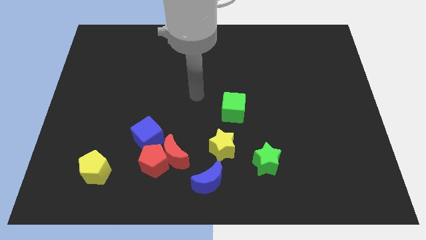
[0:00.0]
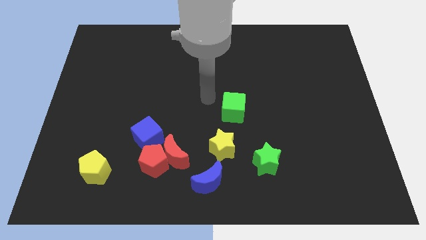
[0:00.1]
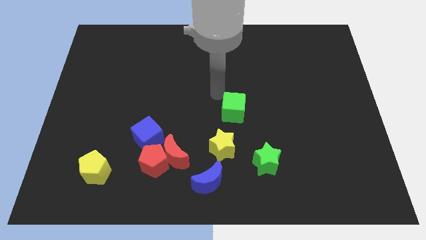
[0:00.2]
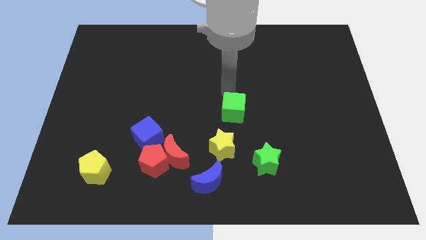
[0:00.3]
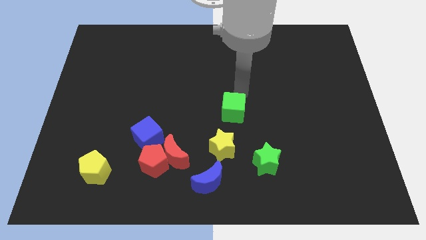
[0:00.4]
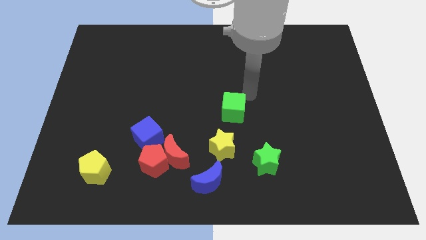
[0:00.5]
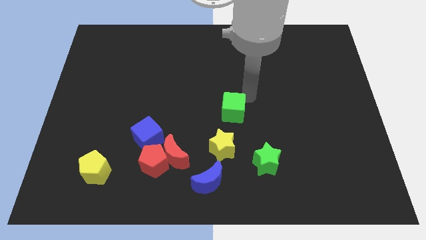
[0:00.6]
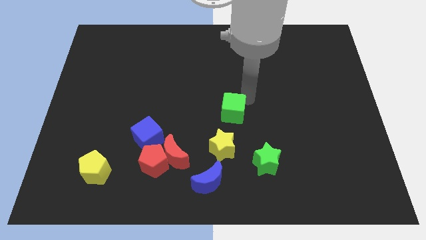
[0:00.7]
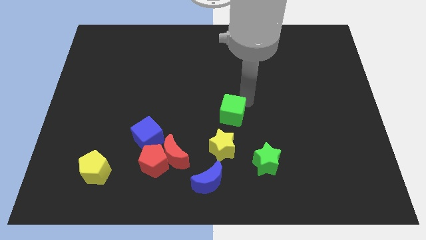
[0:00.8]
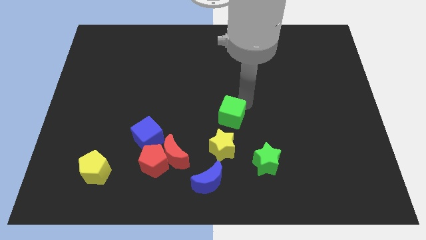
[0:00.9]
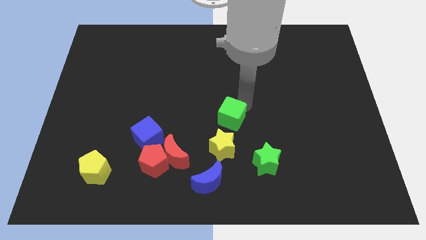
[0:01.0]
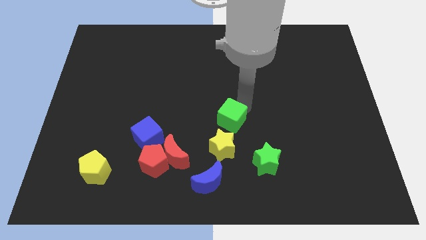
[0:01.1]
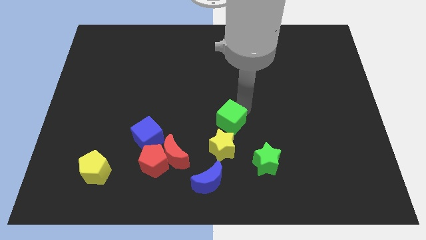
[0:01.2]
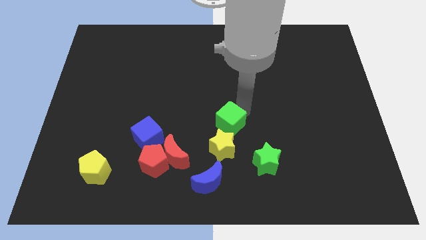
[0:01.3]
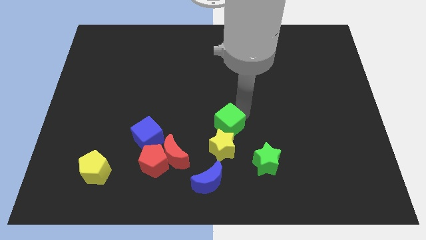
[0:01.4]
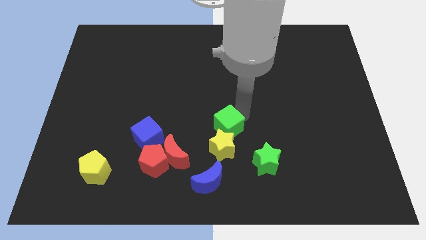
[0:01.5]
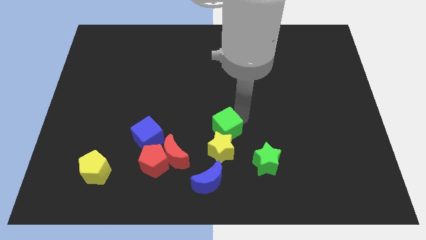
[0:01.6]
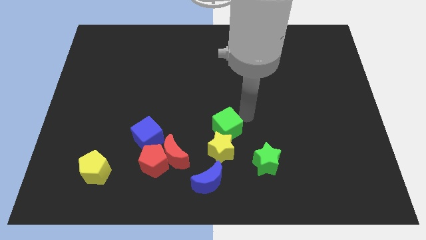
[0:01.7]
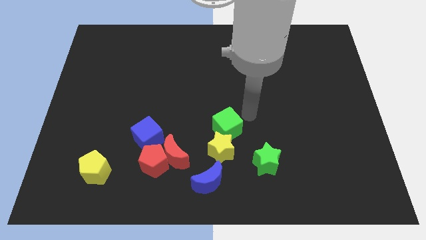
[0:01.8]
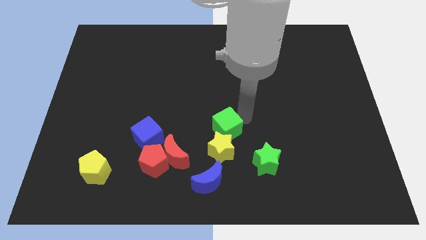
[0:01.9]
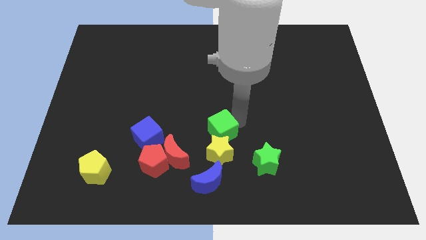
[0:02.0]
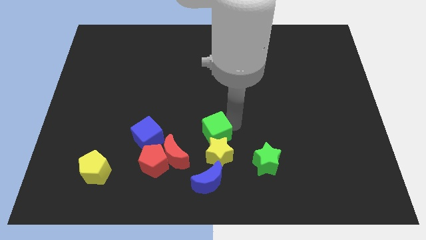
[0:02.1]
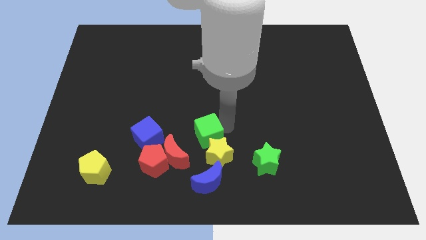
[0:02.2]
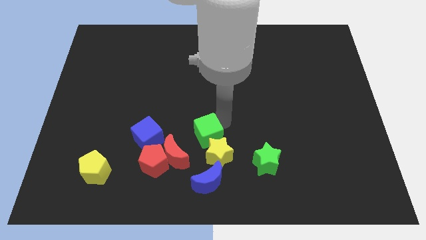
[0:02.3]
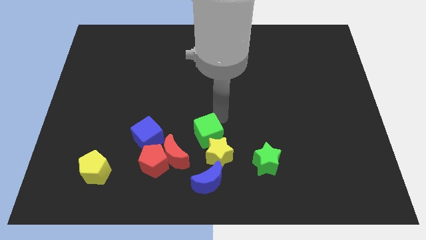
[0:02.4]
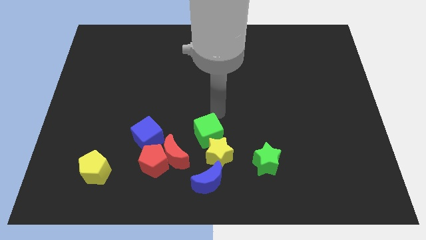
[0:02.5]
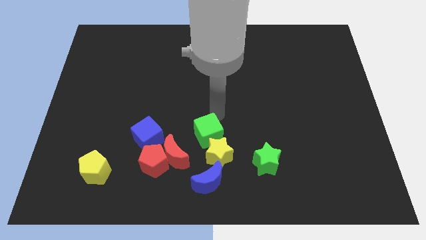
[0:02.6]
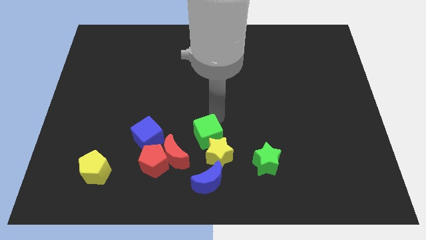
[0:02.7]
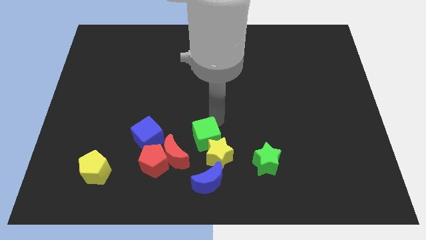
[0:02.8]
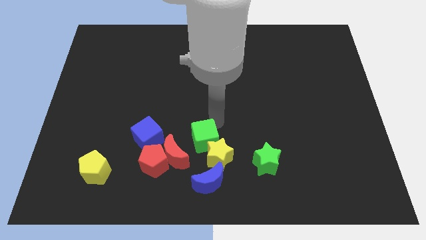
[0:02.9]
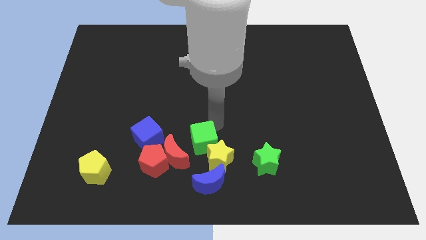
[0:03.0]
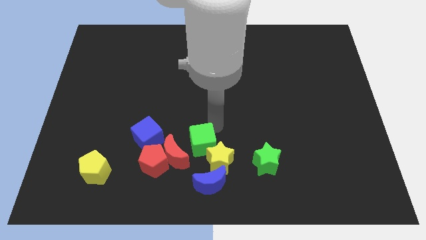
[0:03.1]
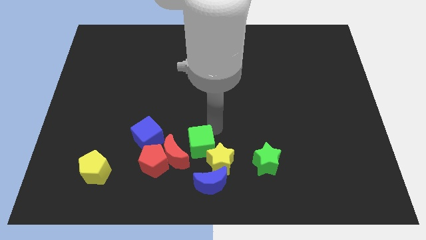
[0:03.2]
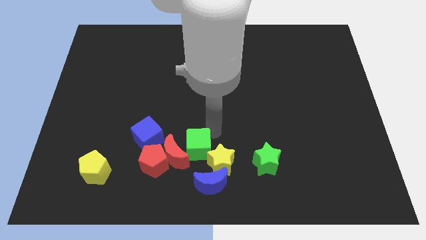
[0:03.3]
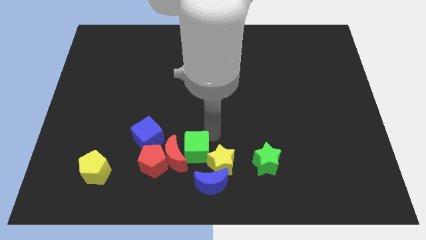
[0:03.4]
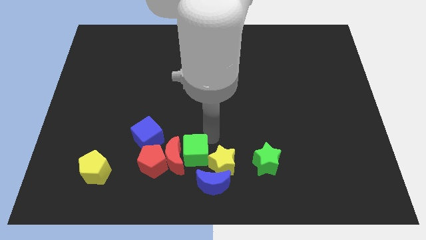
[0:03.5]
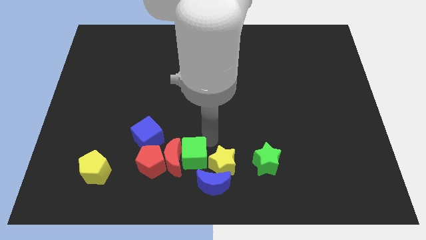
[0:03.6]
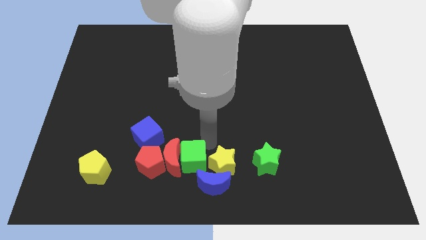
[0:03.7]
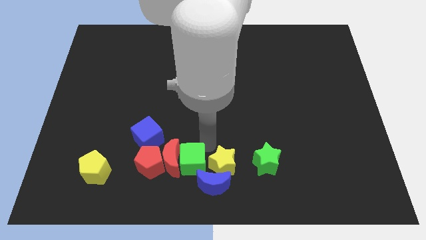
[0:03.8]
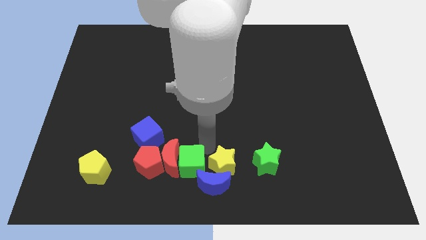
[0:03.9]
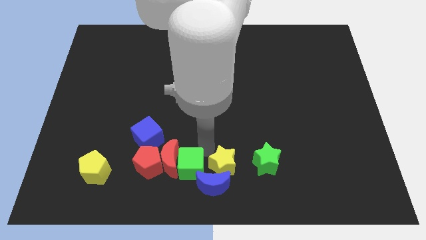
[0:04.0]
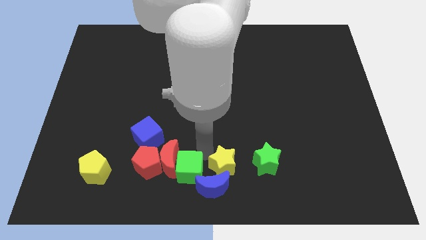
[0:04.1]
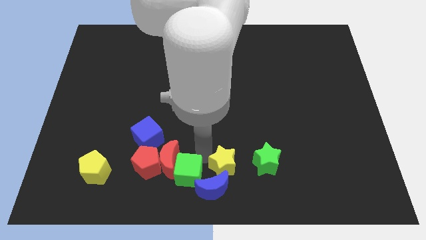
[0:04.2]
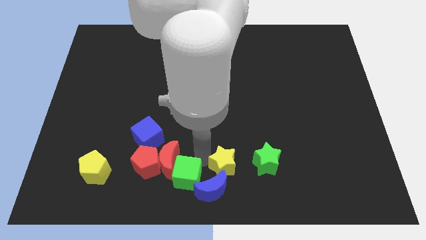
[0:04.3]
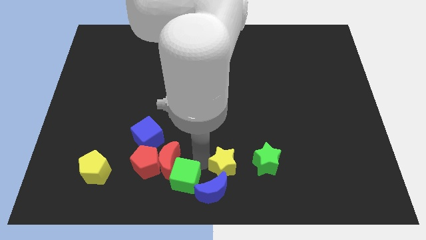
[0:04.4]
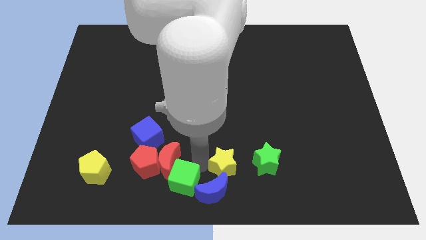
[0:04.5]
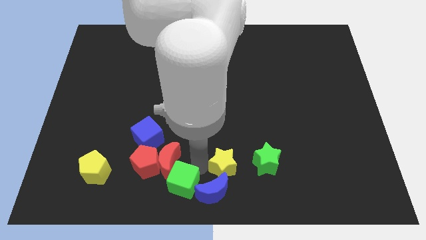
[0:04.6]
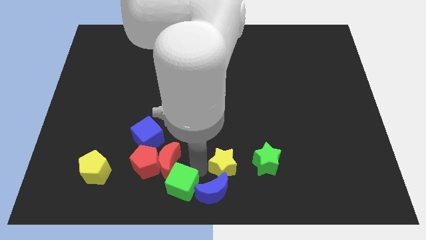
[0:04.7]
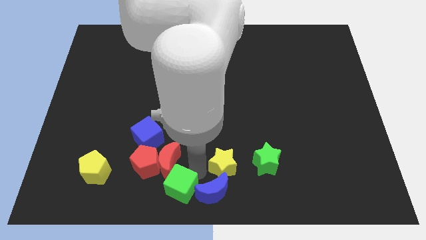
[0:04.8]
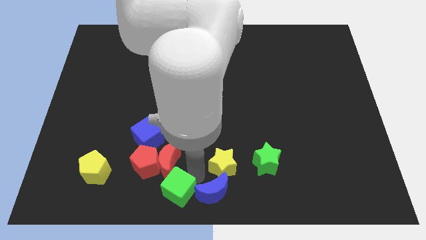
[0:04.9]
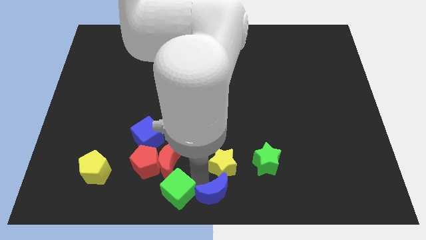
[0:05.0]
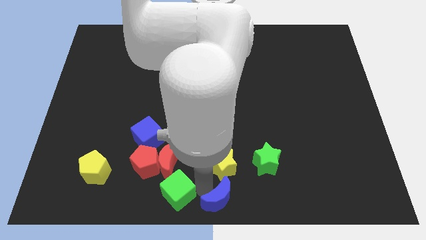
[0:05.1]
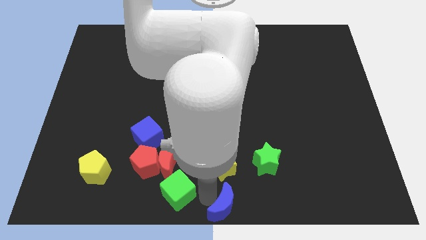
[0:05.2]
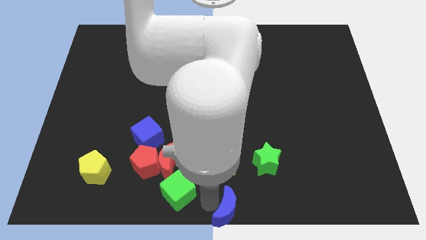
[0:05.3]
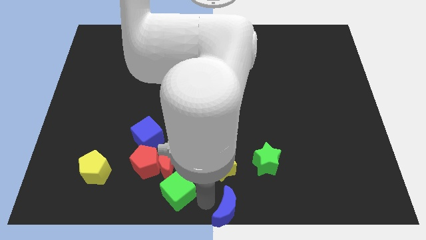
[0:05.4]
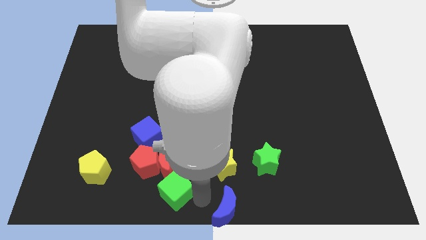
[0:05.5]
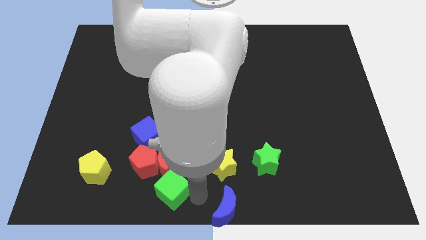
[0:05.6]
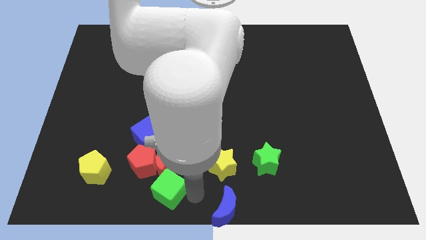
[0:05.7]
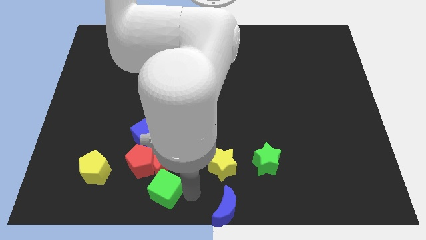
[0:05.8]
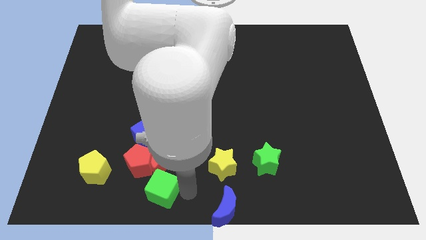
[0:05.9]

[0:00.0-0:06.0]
push the green cube to the bottom side of the blue cube

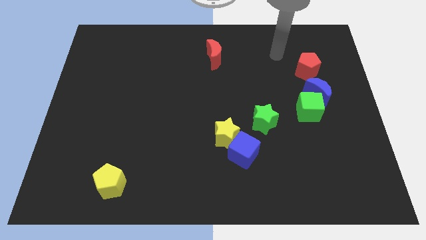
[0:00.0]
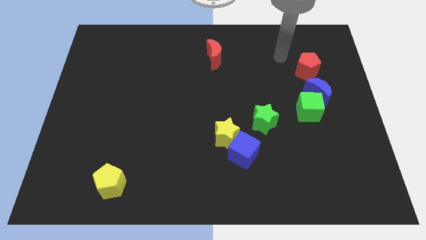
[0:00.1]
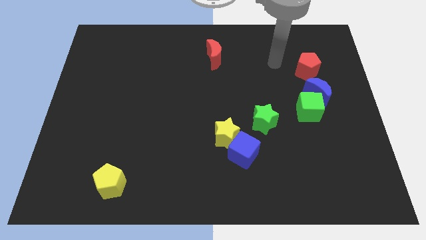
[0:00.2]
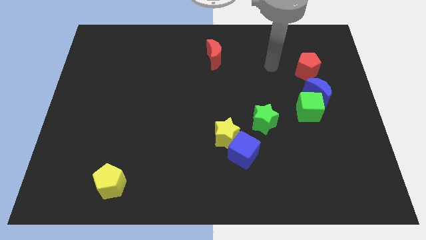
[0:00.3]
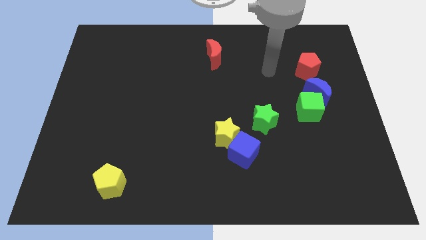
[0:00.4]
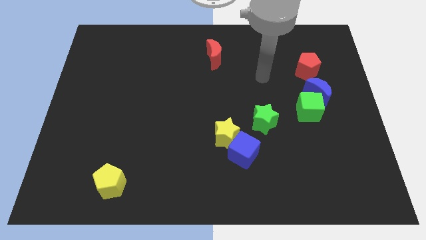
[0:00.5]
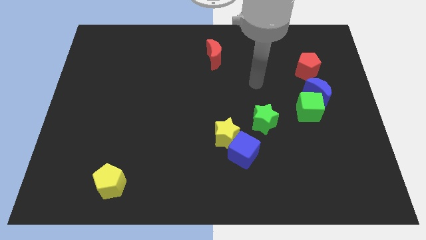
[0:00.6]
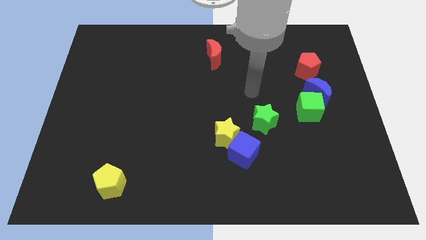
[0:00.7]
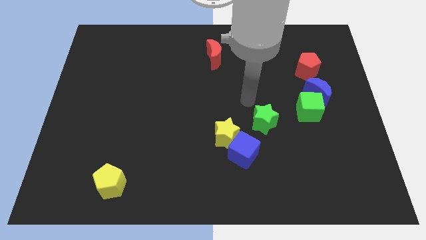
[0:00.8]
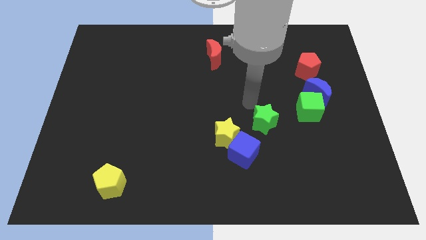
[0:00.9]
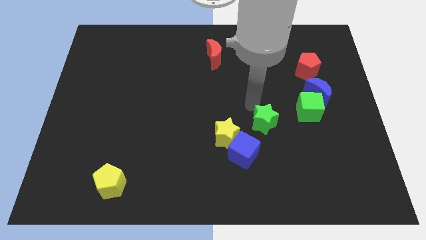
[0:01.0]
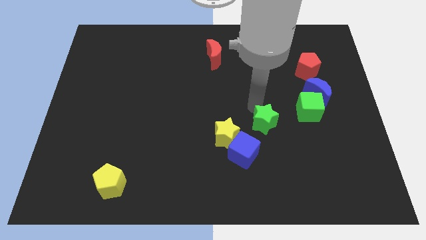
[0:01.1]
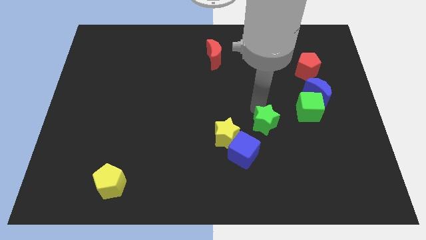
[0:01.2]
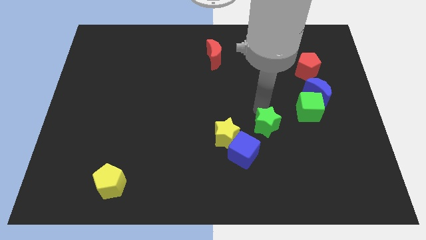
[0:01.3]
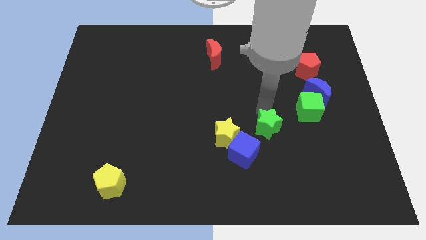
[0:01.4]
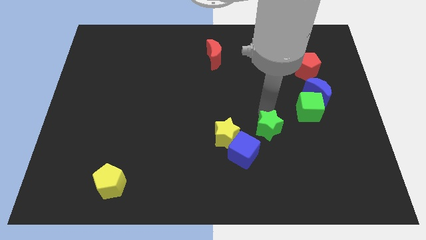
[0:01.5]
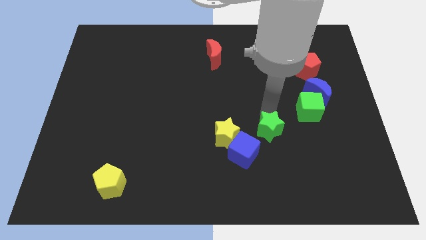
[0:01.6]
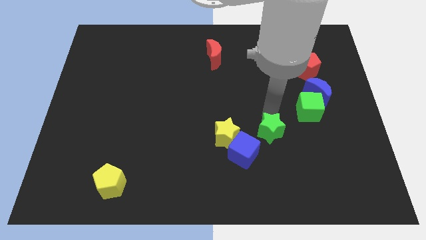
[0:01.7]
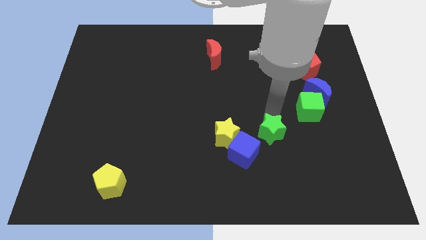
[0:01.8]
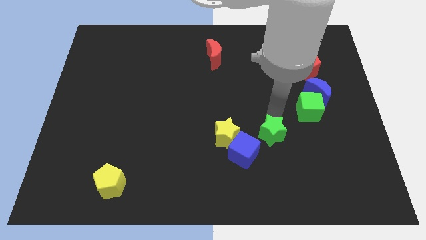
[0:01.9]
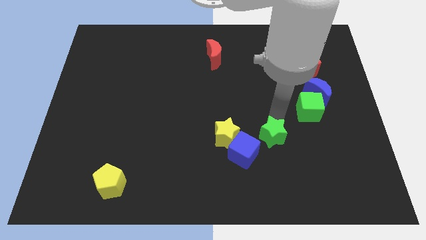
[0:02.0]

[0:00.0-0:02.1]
push the green star to the right of the blue cube
